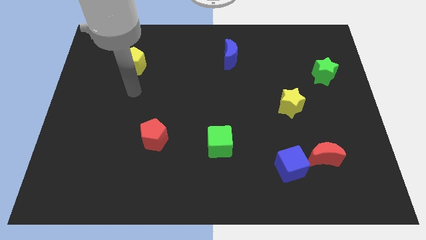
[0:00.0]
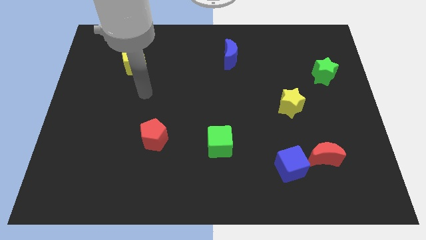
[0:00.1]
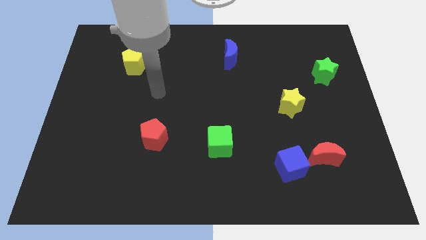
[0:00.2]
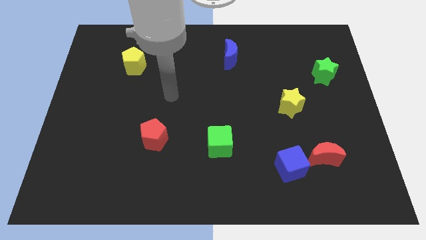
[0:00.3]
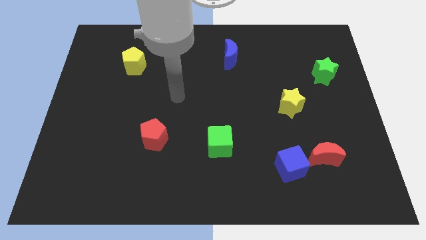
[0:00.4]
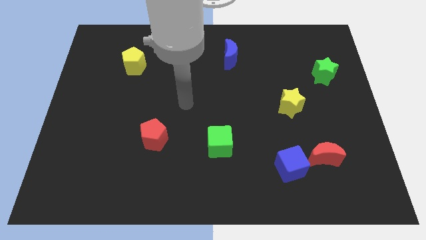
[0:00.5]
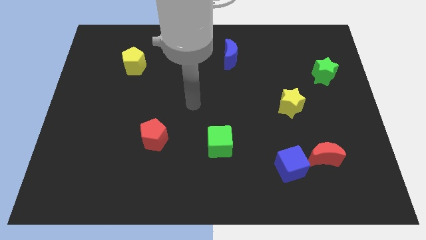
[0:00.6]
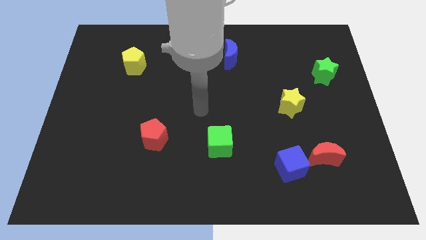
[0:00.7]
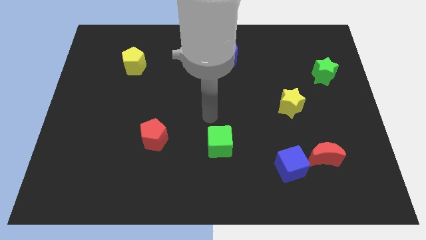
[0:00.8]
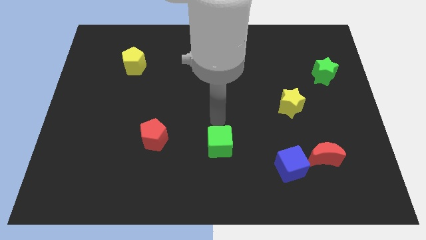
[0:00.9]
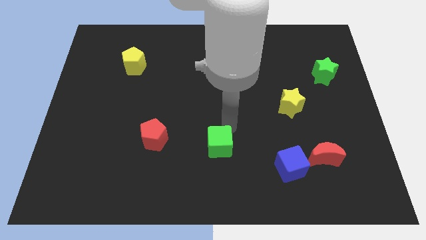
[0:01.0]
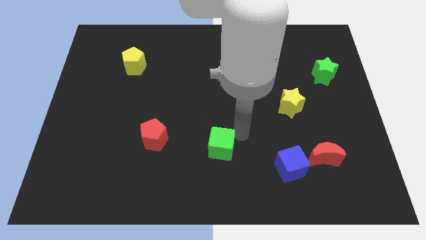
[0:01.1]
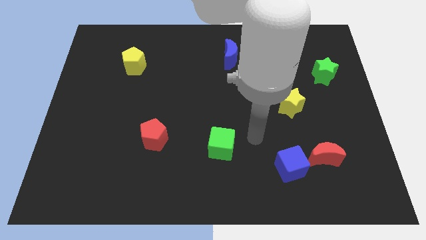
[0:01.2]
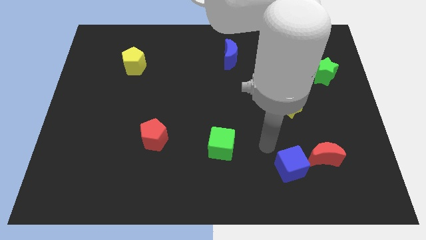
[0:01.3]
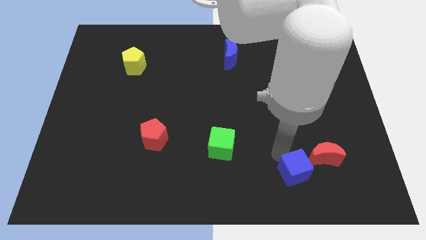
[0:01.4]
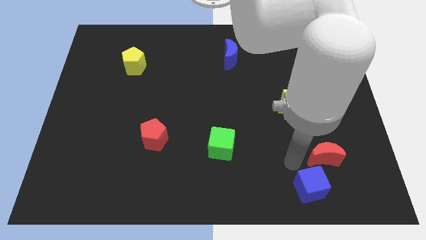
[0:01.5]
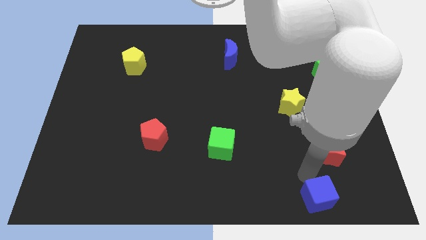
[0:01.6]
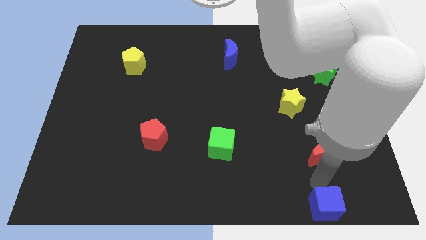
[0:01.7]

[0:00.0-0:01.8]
move the red moon away from the blue cube

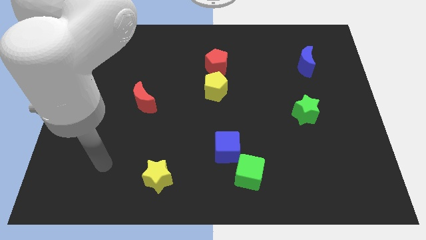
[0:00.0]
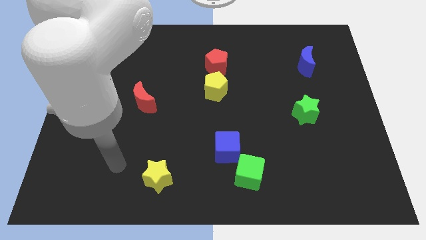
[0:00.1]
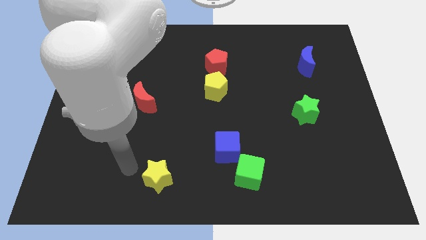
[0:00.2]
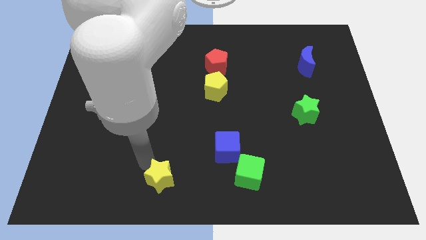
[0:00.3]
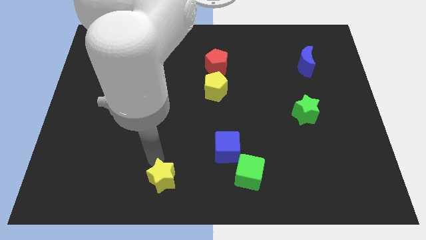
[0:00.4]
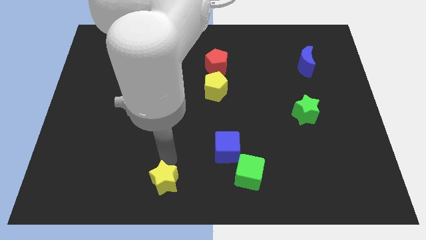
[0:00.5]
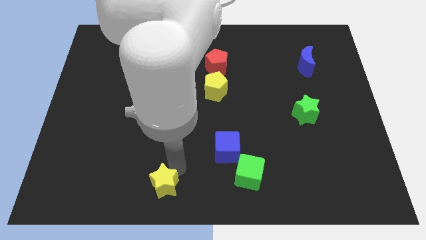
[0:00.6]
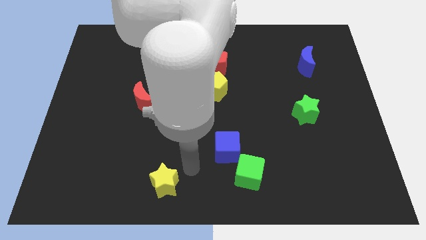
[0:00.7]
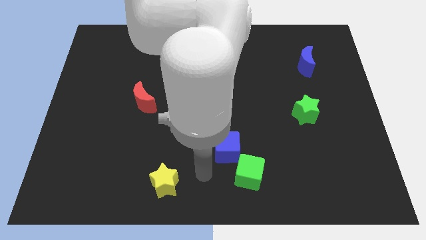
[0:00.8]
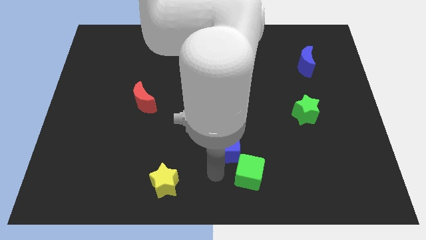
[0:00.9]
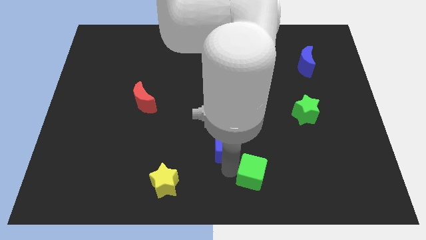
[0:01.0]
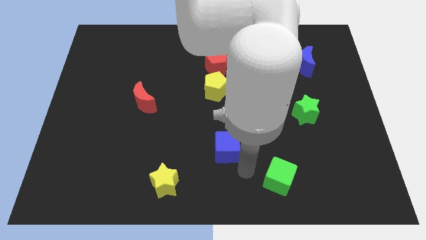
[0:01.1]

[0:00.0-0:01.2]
pull the blue cube apart from the green cube

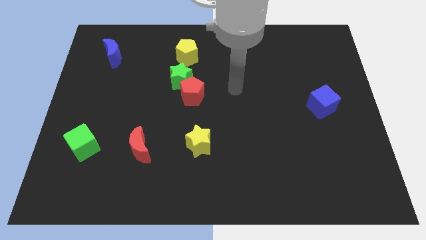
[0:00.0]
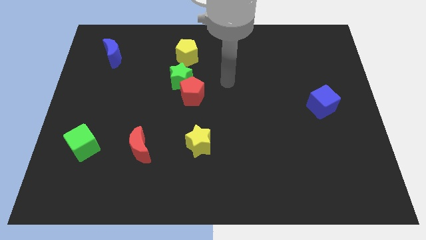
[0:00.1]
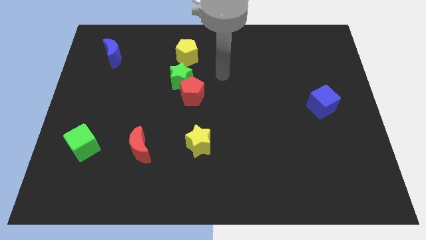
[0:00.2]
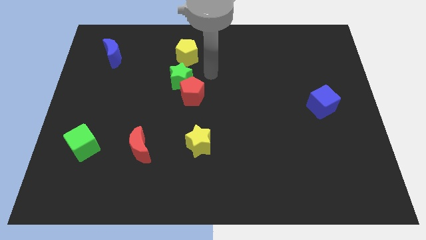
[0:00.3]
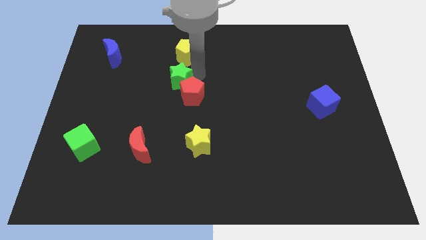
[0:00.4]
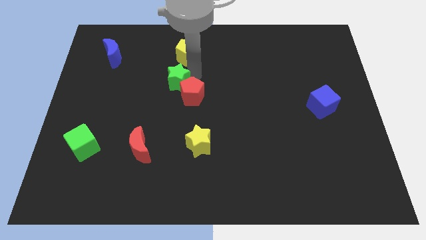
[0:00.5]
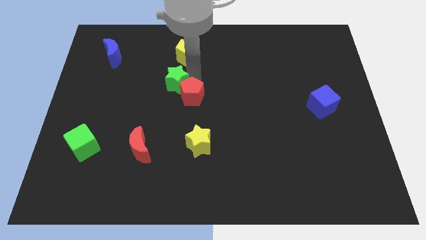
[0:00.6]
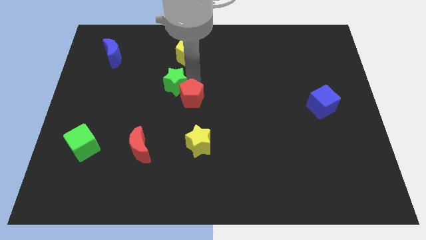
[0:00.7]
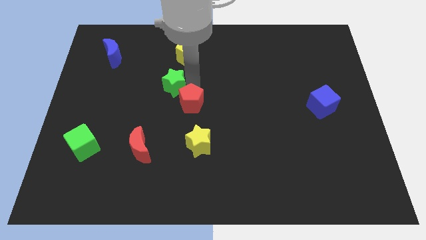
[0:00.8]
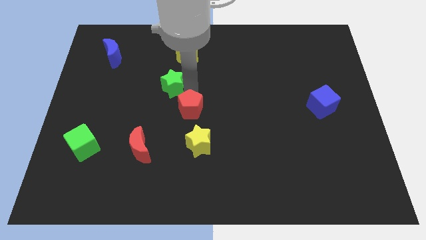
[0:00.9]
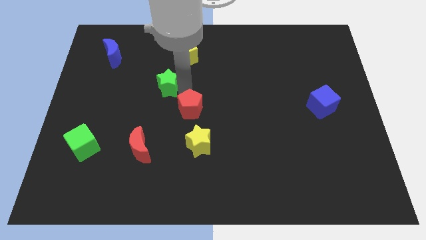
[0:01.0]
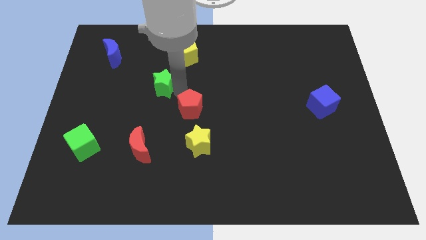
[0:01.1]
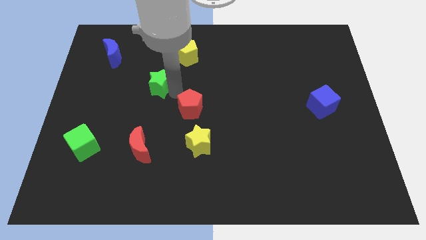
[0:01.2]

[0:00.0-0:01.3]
move the red pentagon away from the green star

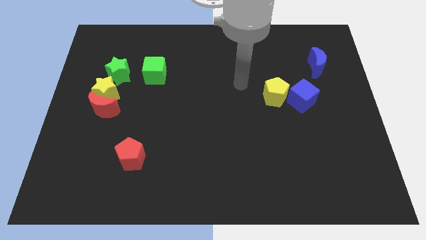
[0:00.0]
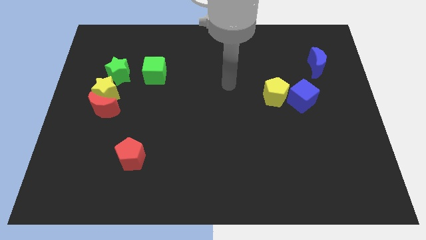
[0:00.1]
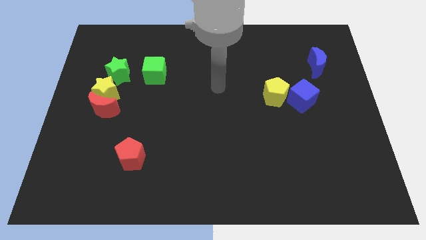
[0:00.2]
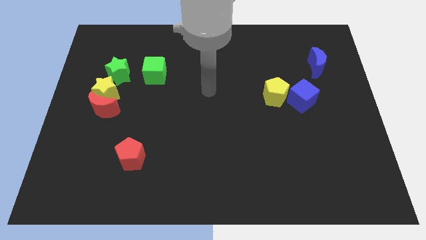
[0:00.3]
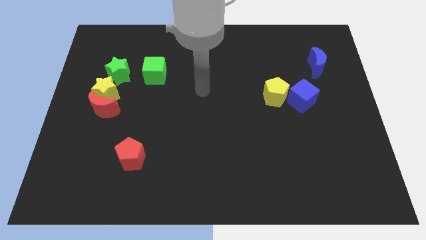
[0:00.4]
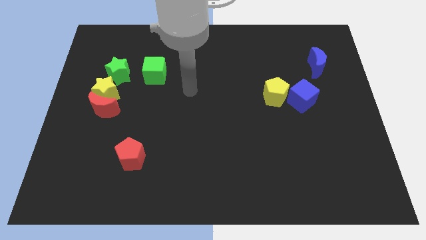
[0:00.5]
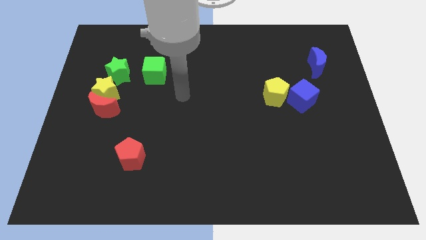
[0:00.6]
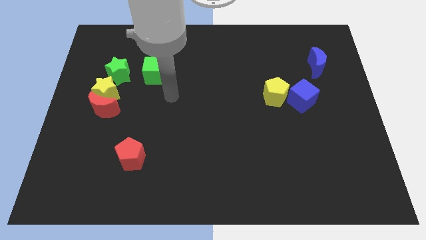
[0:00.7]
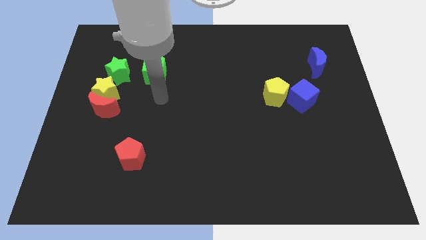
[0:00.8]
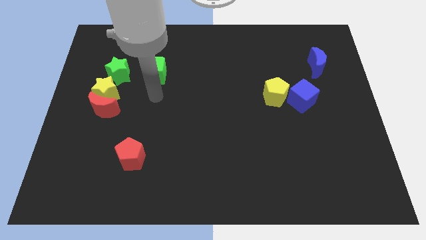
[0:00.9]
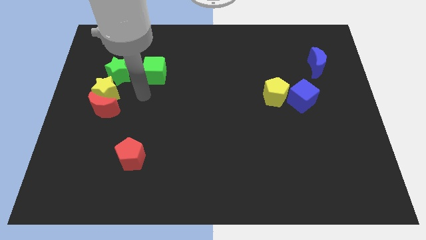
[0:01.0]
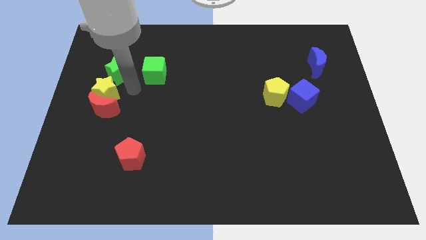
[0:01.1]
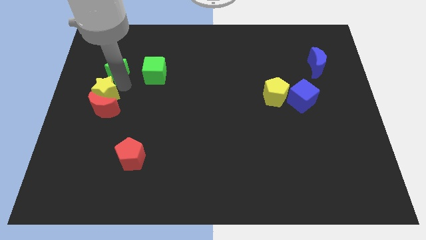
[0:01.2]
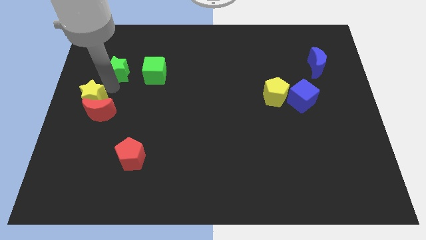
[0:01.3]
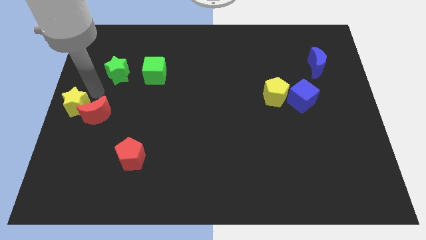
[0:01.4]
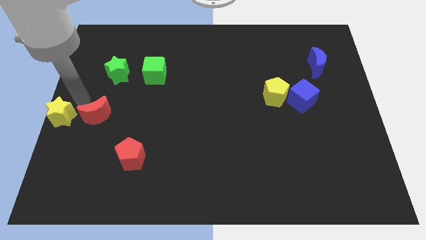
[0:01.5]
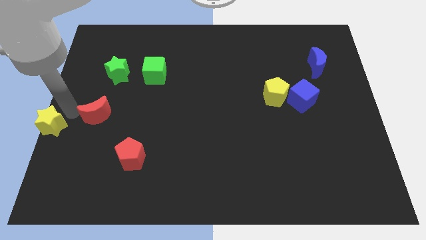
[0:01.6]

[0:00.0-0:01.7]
pull the red moon apart from the yellow star

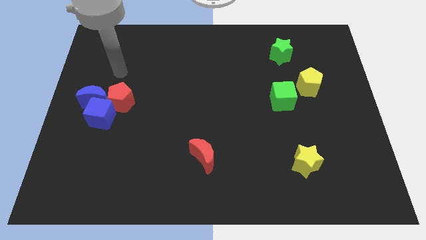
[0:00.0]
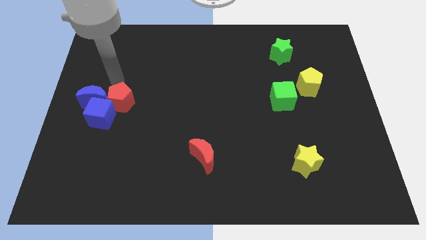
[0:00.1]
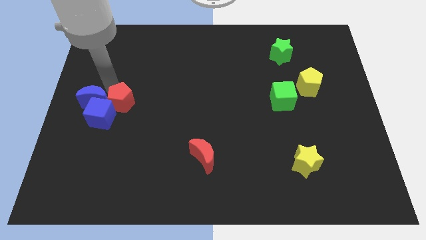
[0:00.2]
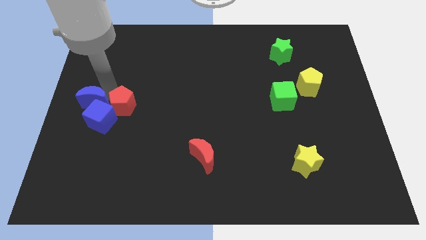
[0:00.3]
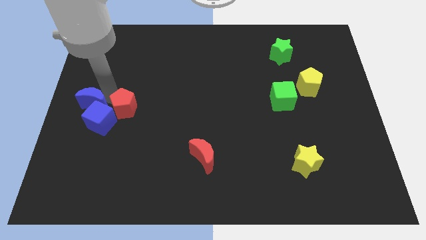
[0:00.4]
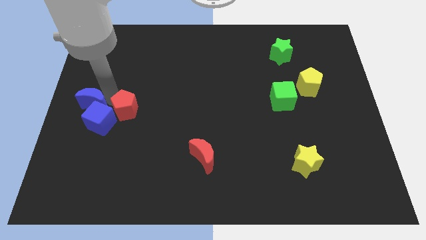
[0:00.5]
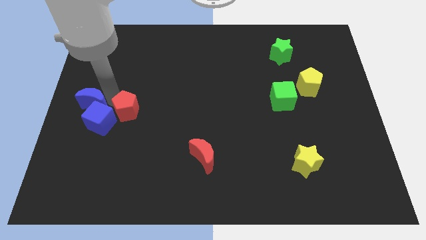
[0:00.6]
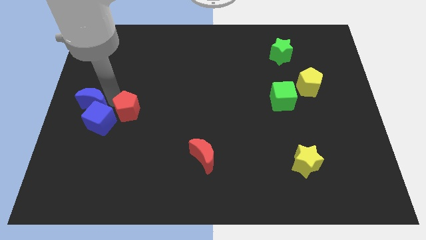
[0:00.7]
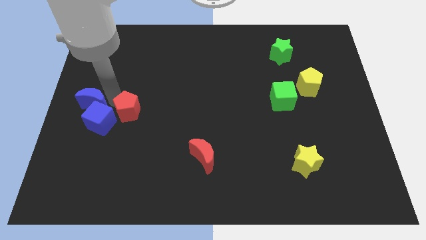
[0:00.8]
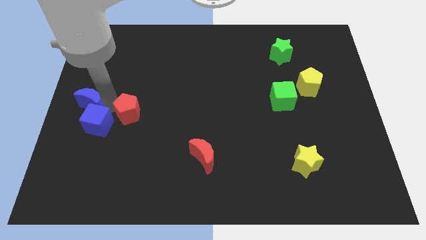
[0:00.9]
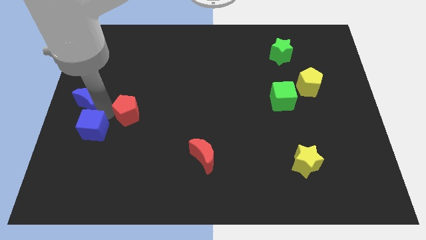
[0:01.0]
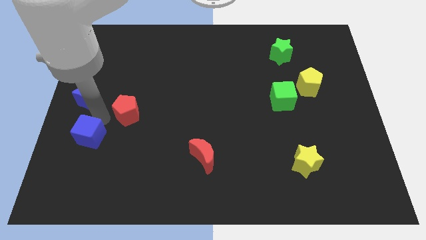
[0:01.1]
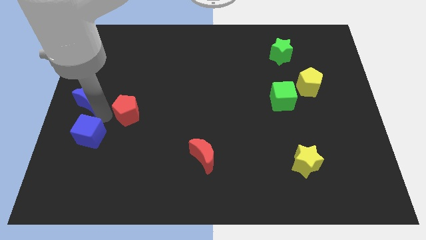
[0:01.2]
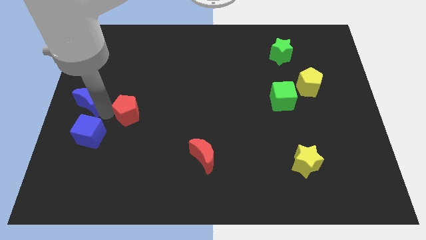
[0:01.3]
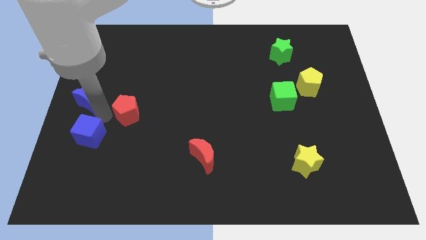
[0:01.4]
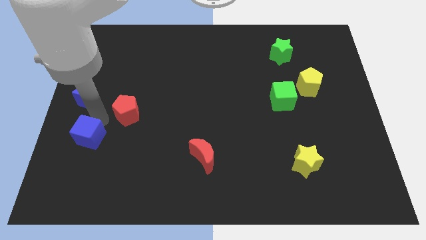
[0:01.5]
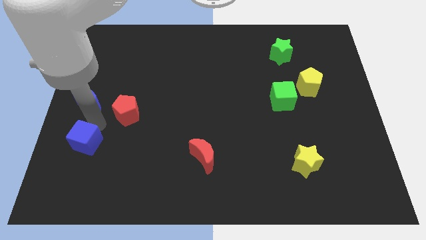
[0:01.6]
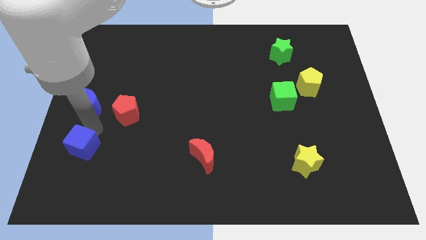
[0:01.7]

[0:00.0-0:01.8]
pull the blue cube apart from the blue moon and red pentagon

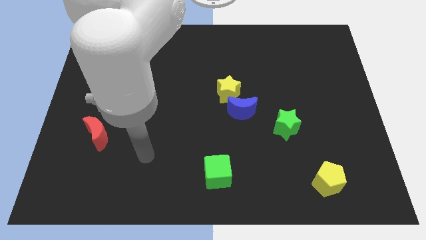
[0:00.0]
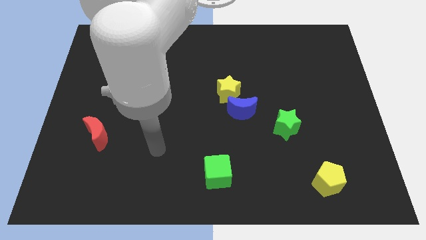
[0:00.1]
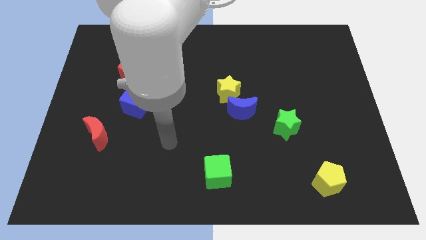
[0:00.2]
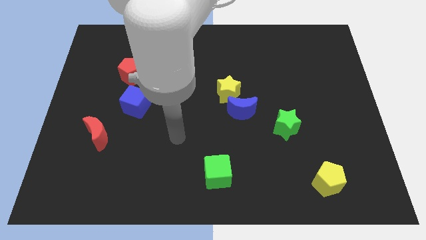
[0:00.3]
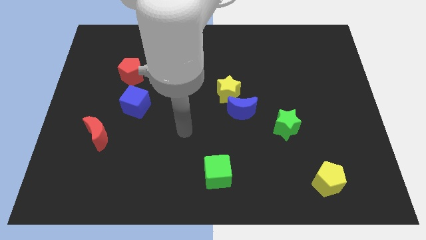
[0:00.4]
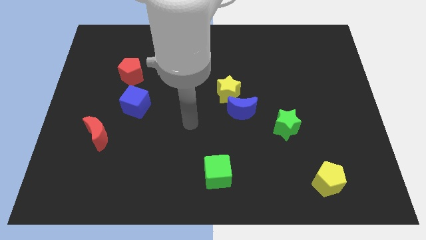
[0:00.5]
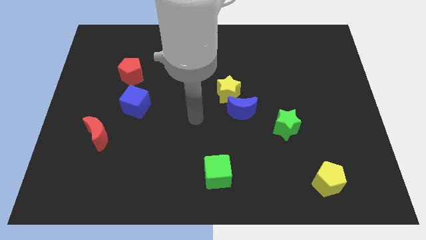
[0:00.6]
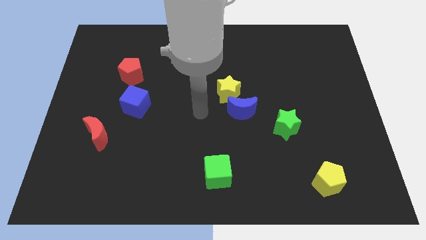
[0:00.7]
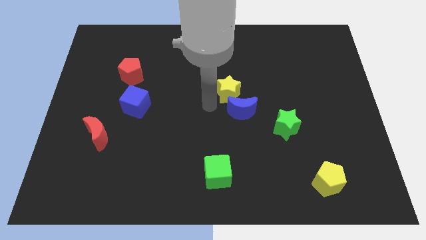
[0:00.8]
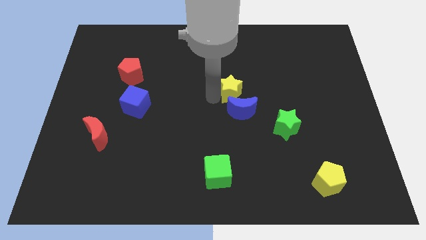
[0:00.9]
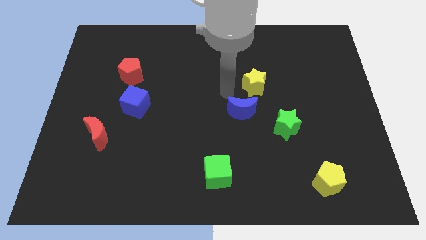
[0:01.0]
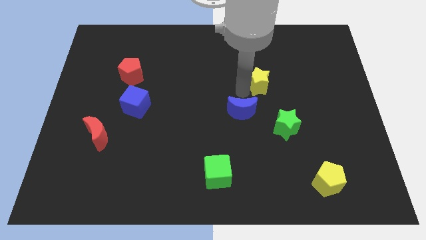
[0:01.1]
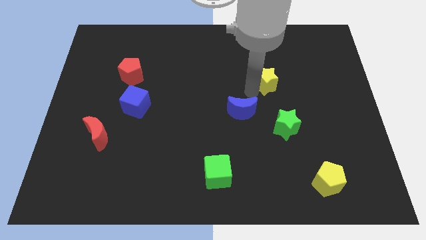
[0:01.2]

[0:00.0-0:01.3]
move the blue moon away from the yellow star

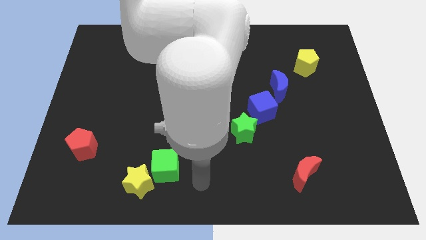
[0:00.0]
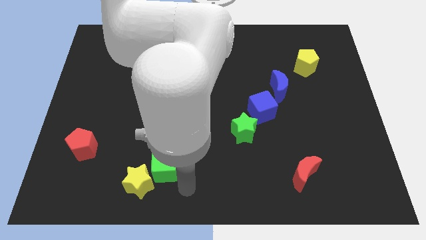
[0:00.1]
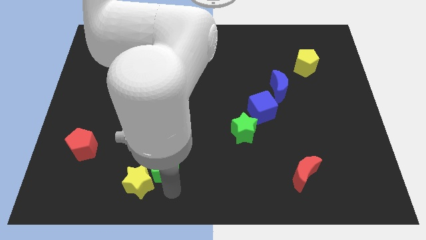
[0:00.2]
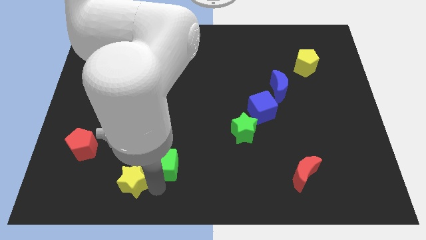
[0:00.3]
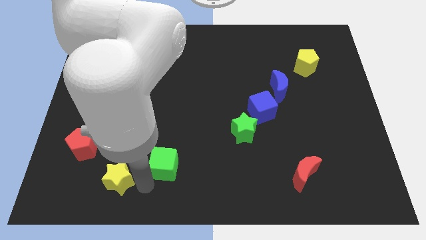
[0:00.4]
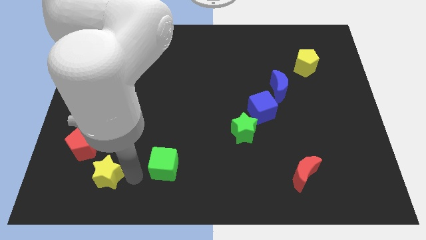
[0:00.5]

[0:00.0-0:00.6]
move the green cube away from the yellow star
